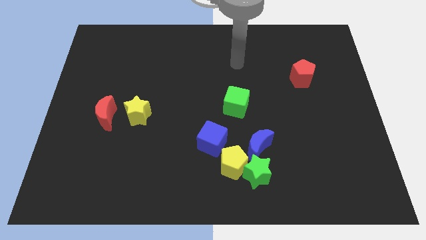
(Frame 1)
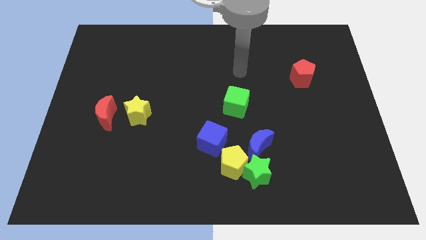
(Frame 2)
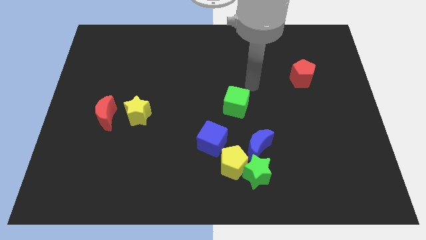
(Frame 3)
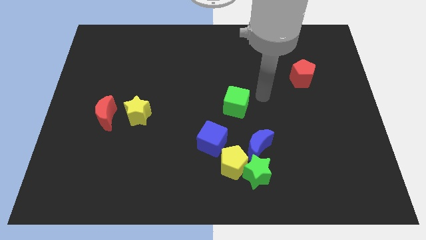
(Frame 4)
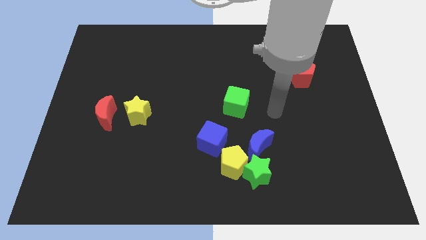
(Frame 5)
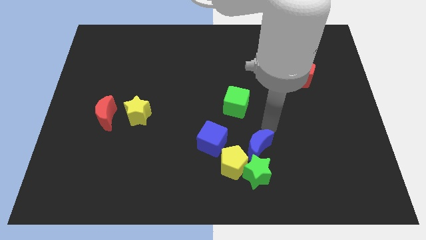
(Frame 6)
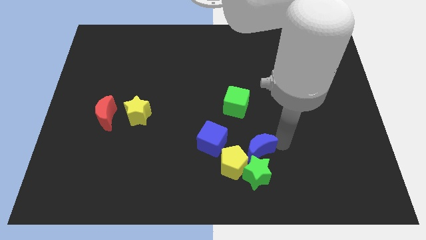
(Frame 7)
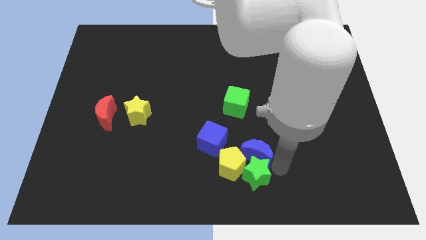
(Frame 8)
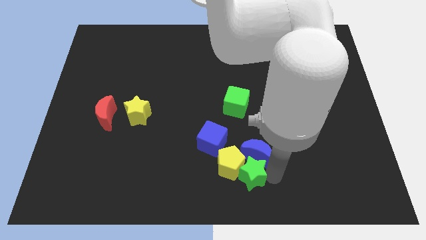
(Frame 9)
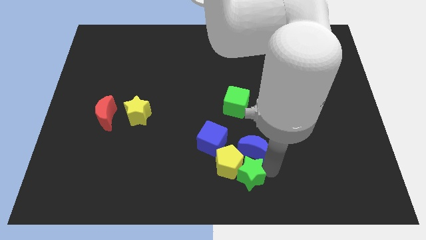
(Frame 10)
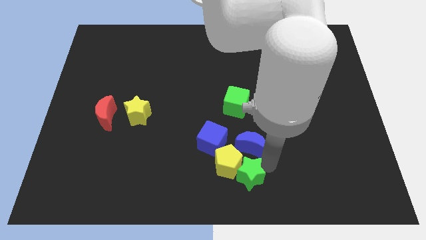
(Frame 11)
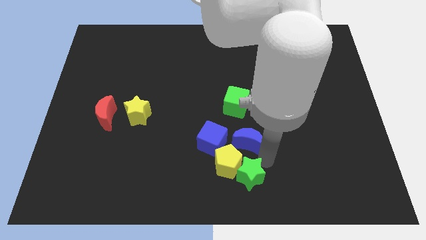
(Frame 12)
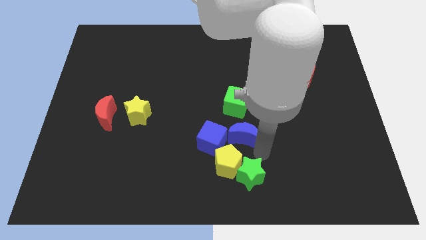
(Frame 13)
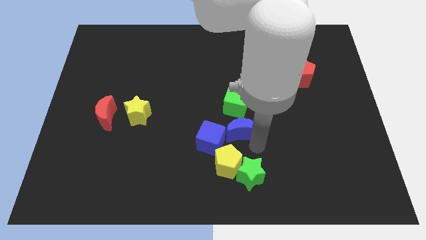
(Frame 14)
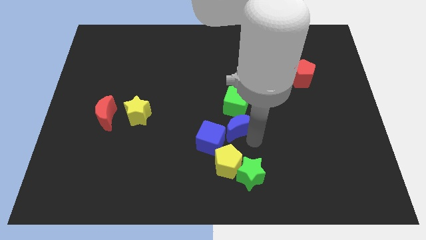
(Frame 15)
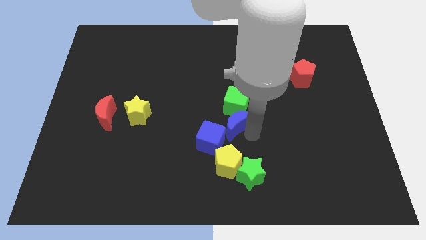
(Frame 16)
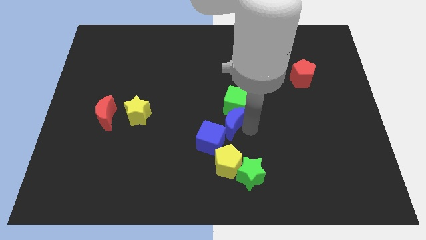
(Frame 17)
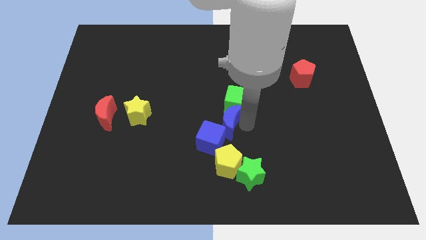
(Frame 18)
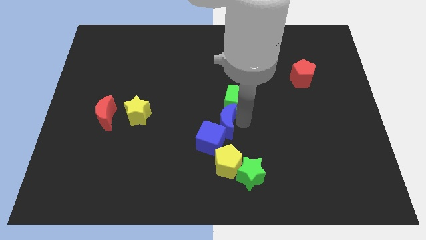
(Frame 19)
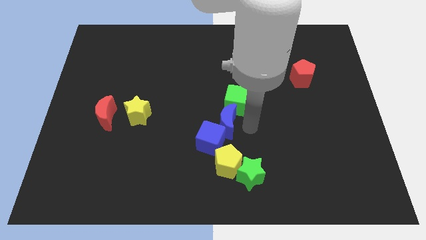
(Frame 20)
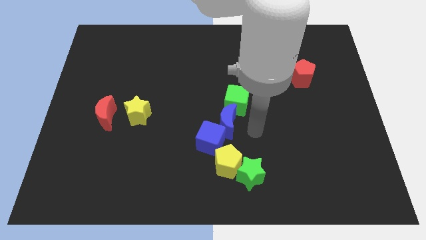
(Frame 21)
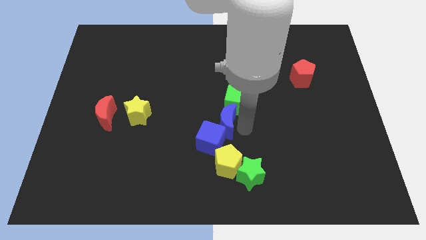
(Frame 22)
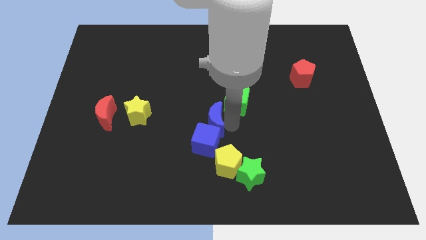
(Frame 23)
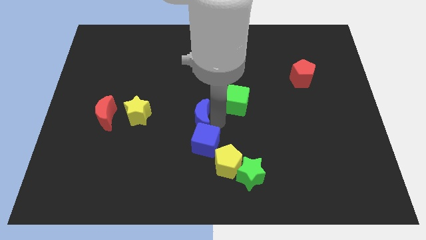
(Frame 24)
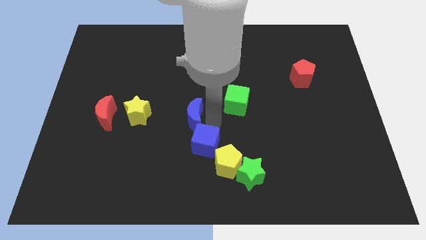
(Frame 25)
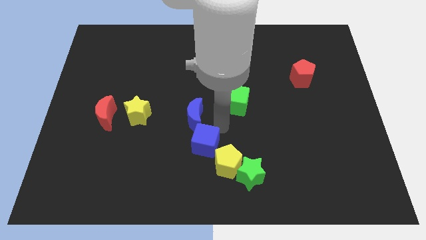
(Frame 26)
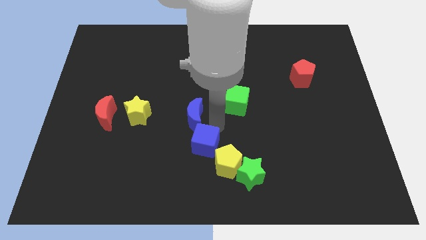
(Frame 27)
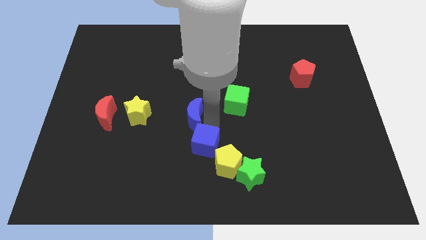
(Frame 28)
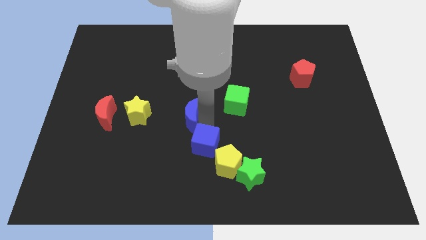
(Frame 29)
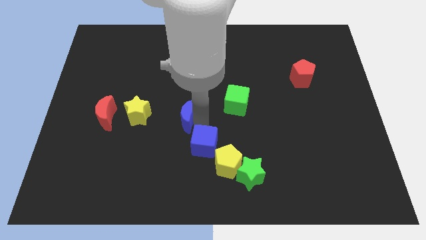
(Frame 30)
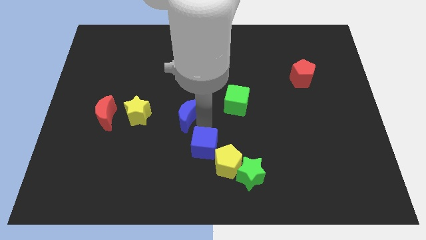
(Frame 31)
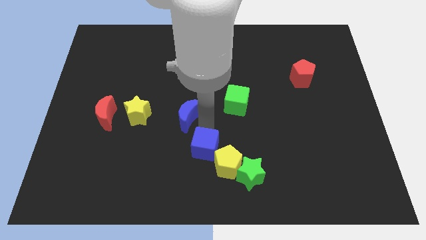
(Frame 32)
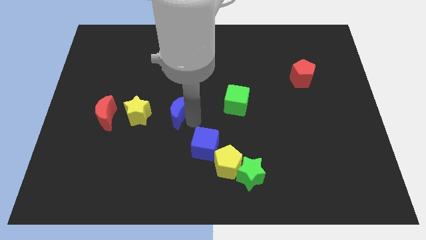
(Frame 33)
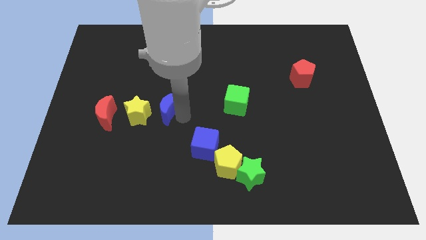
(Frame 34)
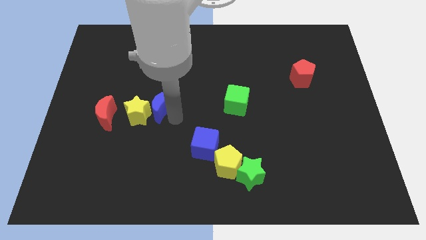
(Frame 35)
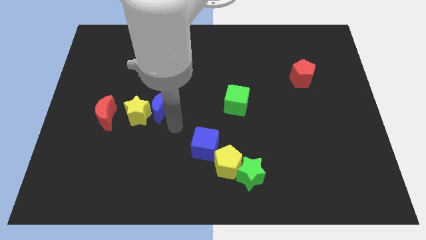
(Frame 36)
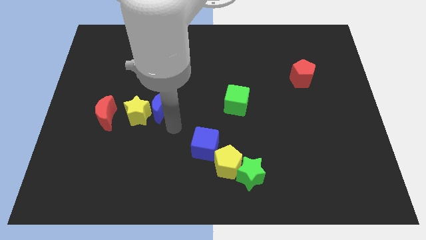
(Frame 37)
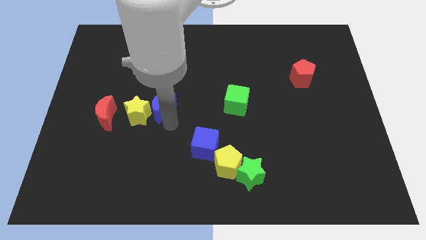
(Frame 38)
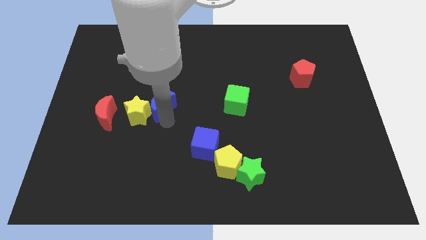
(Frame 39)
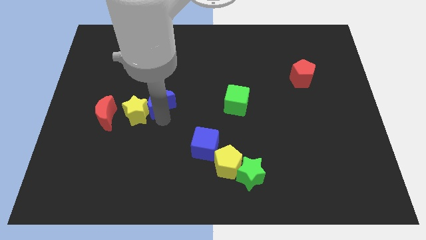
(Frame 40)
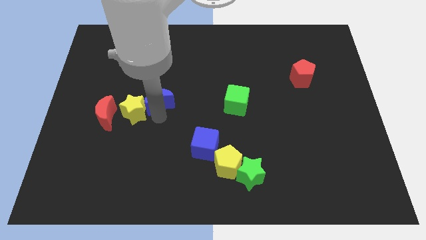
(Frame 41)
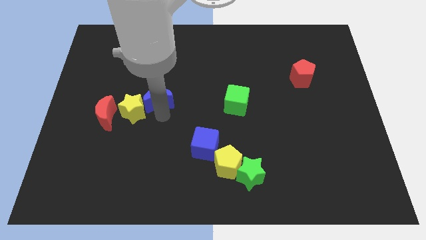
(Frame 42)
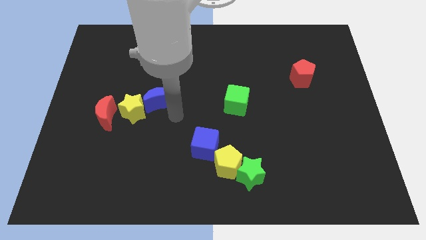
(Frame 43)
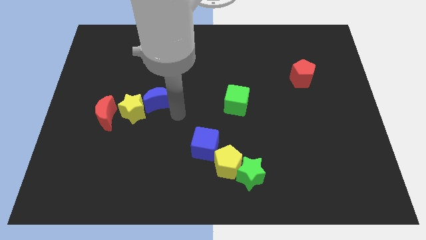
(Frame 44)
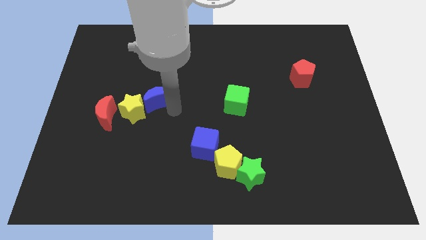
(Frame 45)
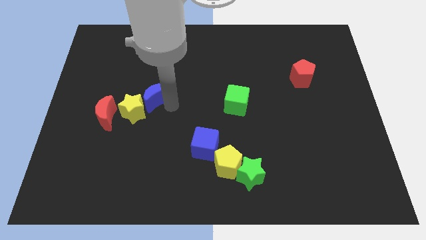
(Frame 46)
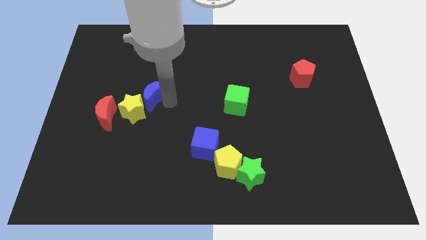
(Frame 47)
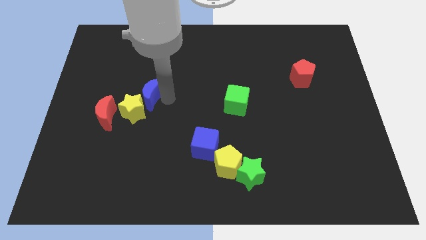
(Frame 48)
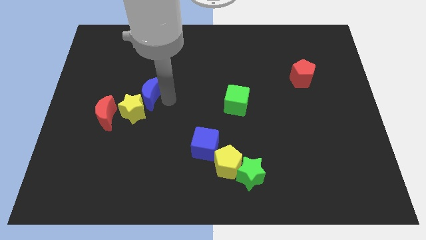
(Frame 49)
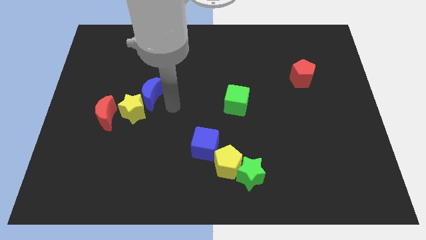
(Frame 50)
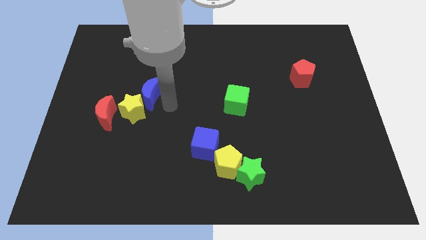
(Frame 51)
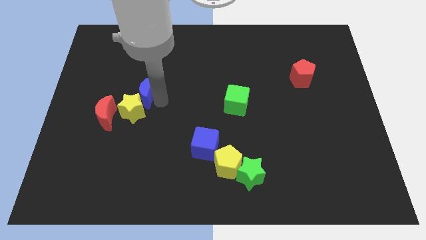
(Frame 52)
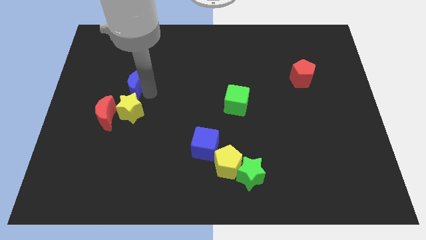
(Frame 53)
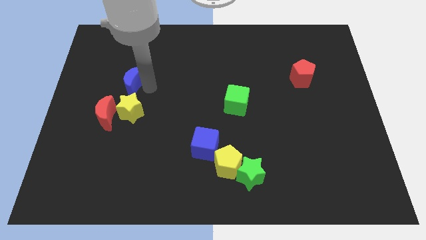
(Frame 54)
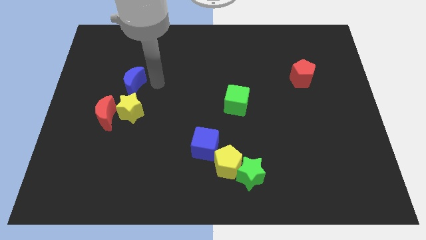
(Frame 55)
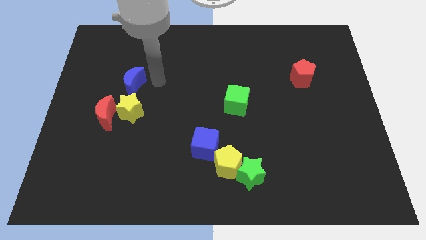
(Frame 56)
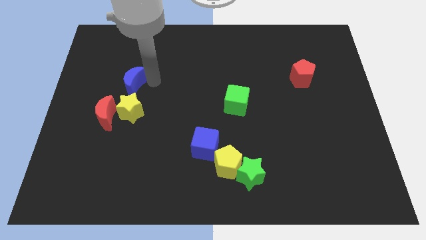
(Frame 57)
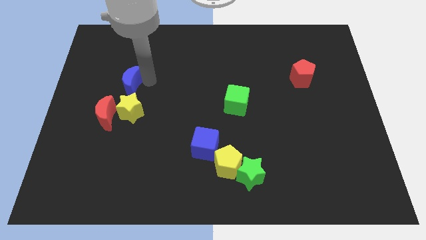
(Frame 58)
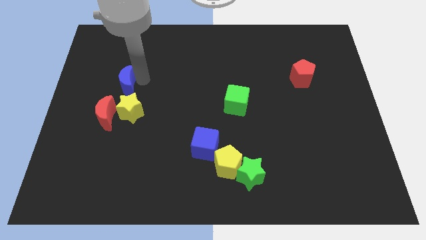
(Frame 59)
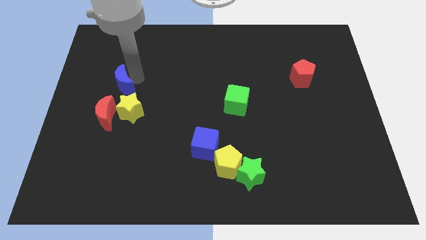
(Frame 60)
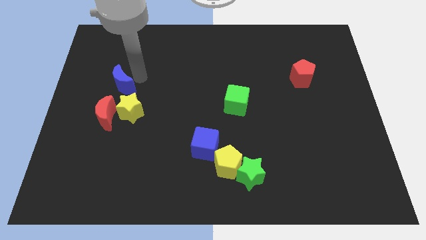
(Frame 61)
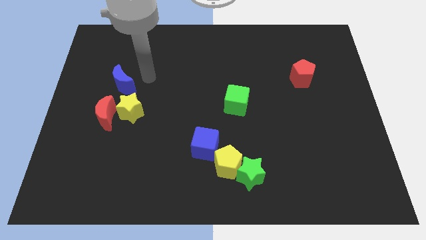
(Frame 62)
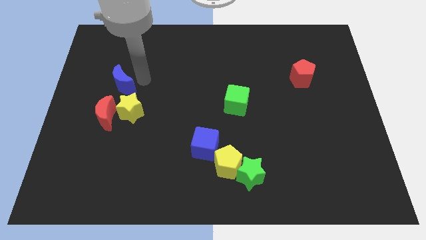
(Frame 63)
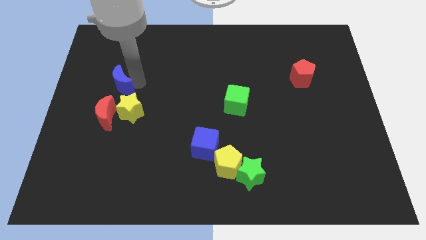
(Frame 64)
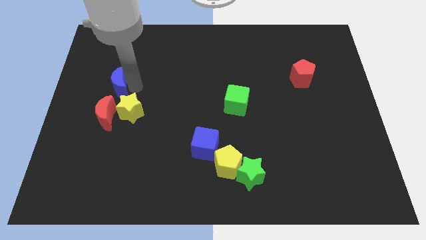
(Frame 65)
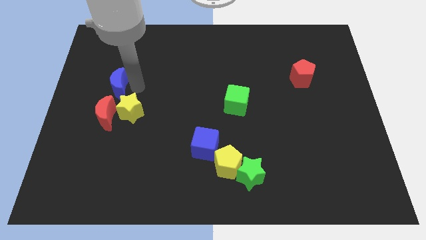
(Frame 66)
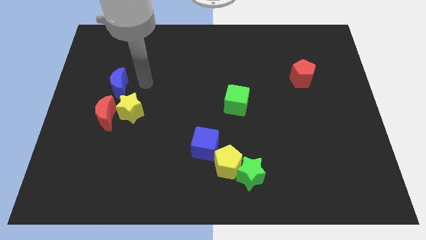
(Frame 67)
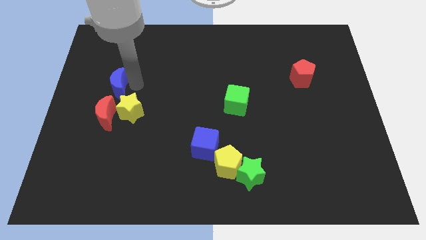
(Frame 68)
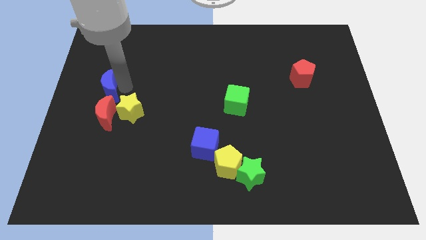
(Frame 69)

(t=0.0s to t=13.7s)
slide the blue moon to the left side of the board
